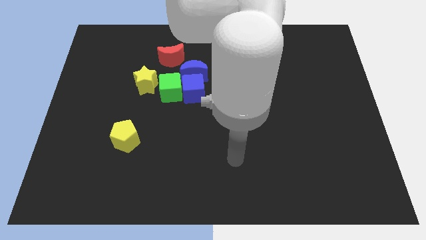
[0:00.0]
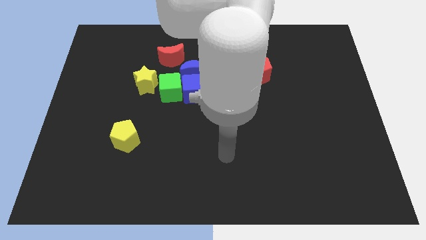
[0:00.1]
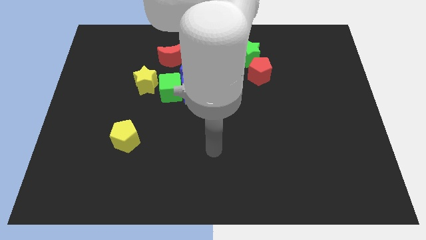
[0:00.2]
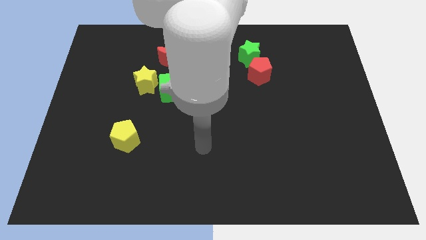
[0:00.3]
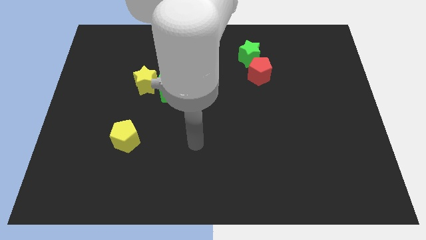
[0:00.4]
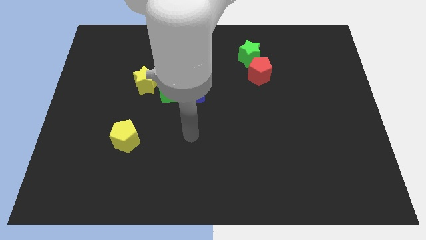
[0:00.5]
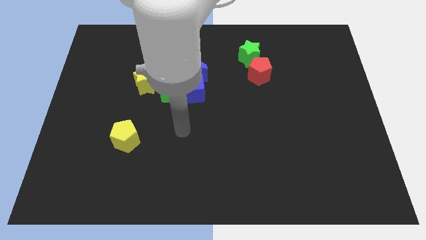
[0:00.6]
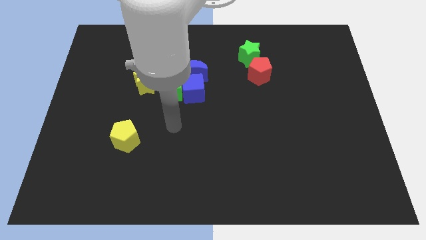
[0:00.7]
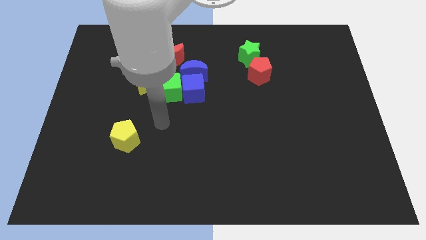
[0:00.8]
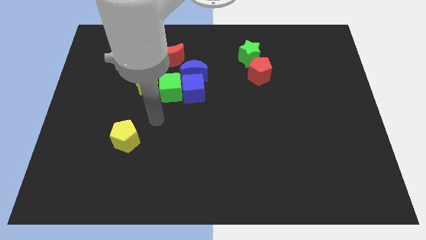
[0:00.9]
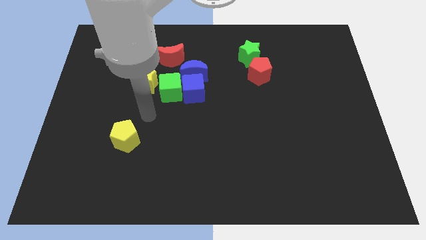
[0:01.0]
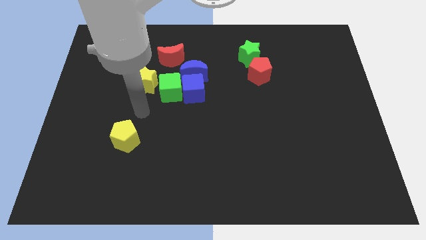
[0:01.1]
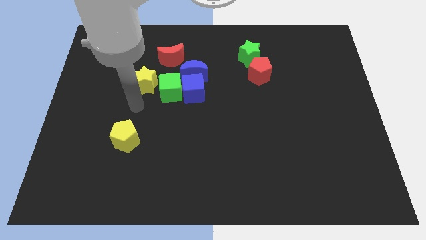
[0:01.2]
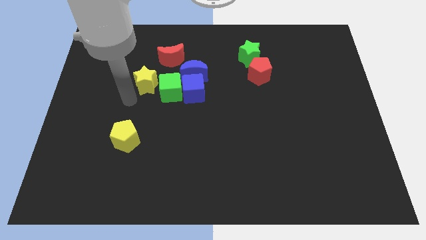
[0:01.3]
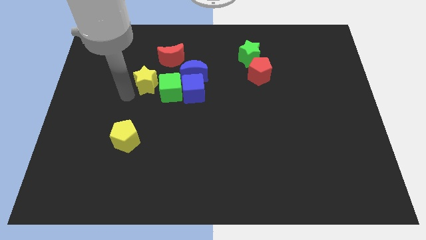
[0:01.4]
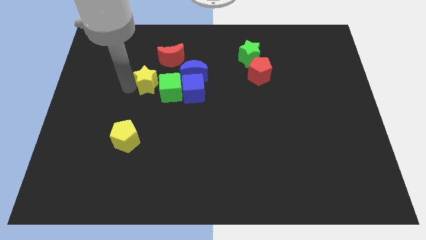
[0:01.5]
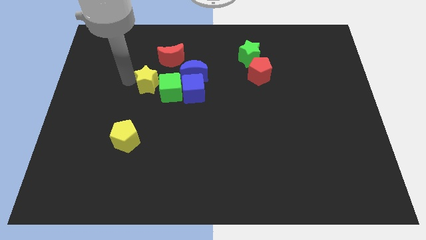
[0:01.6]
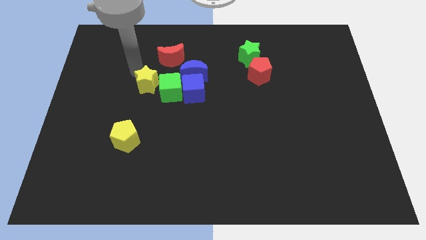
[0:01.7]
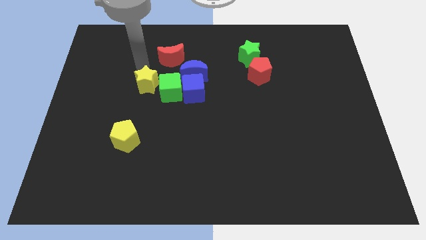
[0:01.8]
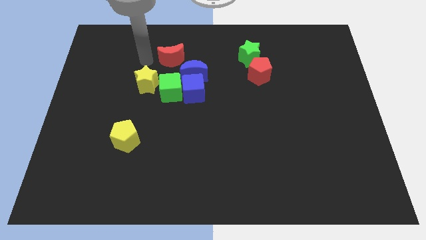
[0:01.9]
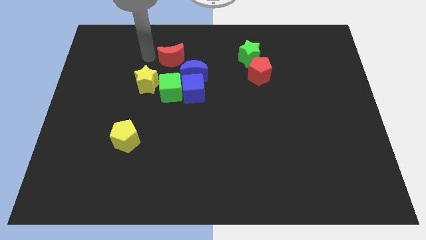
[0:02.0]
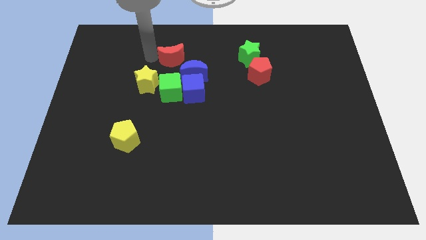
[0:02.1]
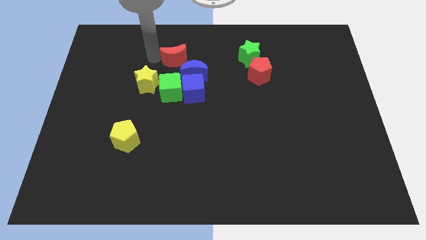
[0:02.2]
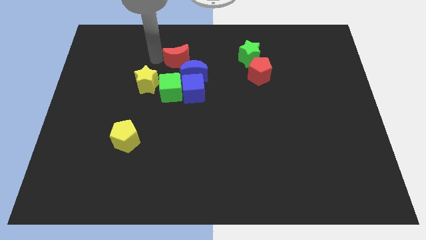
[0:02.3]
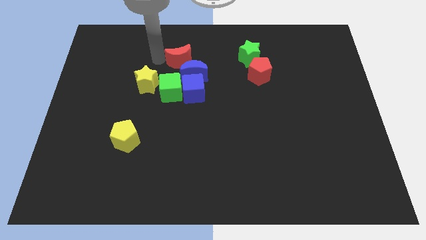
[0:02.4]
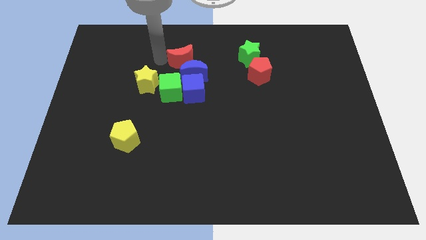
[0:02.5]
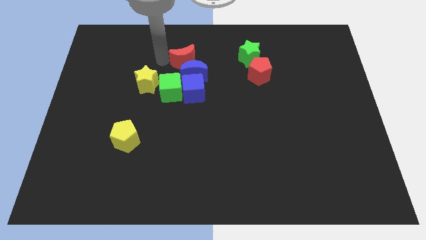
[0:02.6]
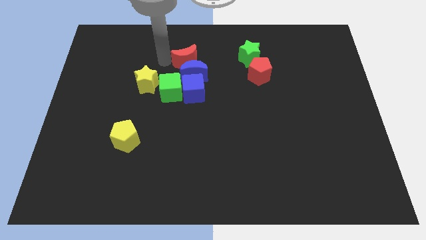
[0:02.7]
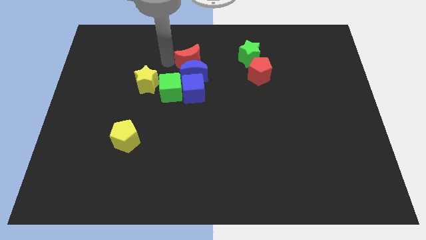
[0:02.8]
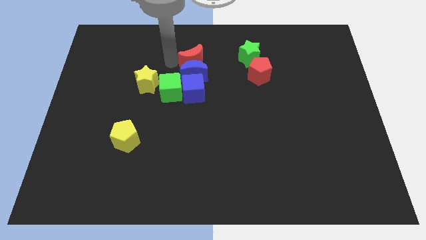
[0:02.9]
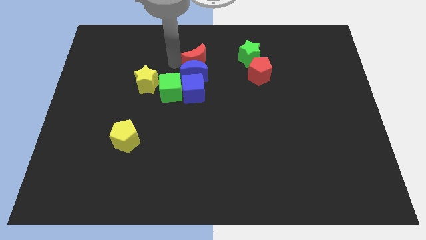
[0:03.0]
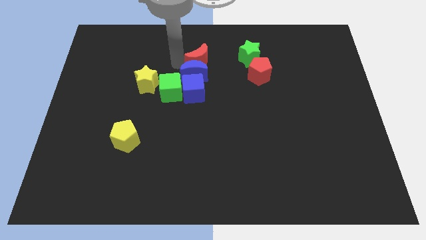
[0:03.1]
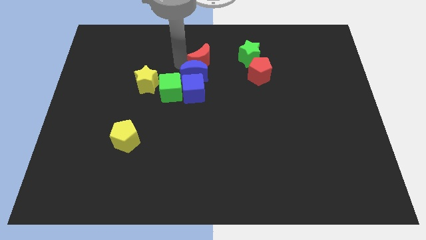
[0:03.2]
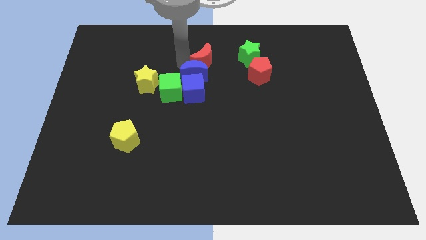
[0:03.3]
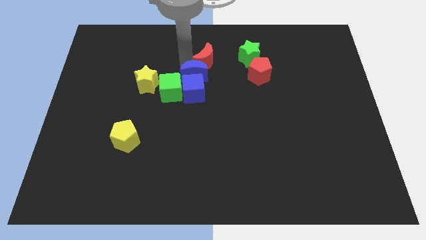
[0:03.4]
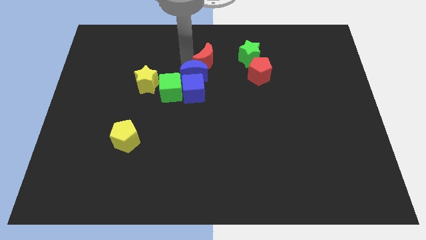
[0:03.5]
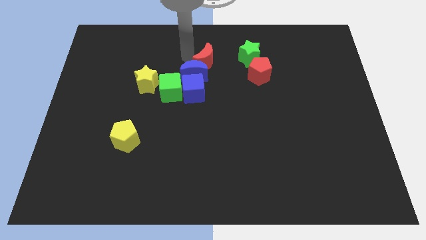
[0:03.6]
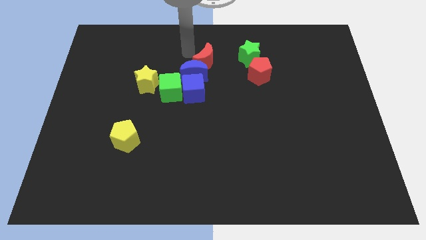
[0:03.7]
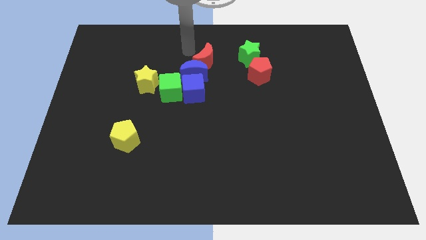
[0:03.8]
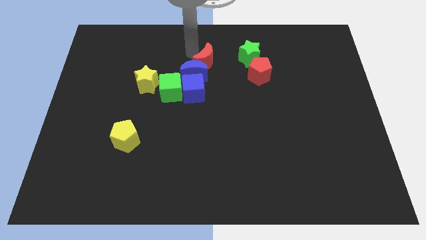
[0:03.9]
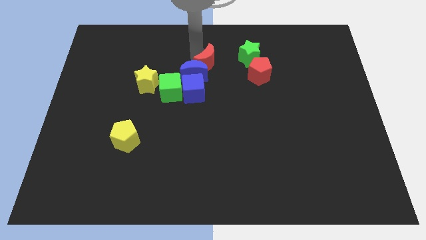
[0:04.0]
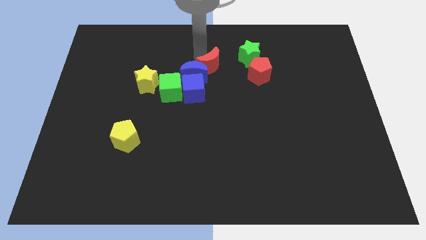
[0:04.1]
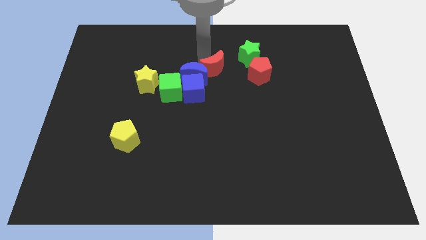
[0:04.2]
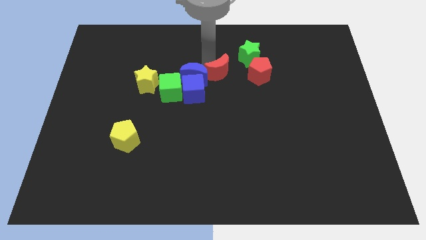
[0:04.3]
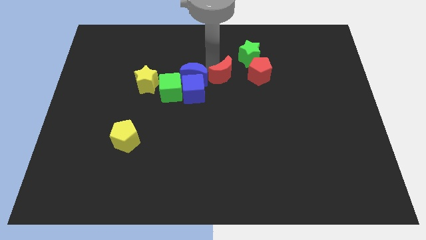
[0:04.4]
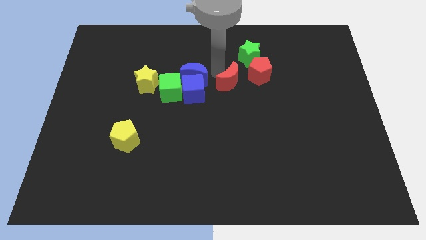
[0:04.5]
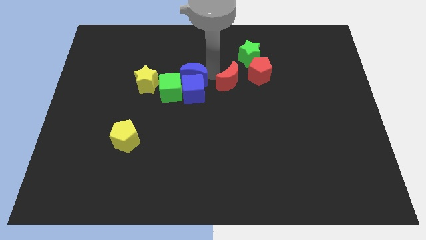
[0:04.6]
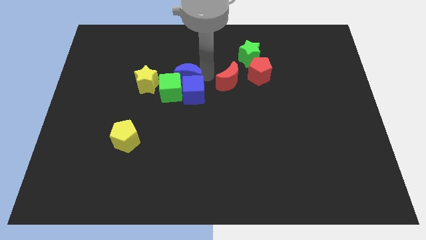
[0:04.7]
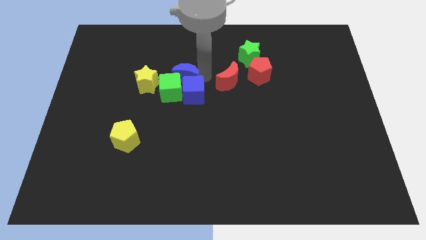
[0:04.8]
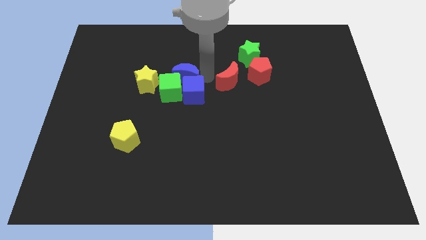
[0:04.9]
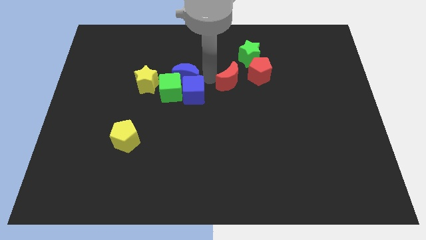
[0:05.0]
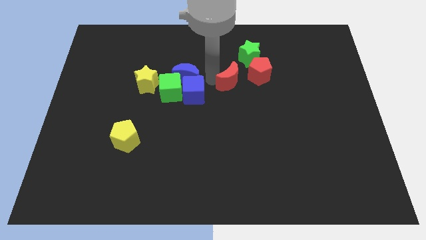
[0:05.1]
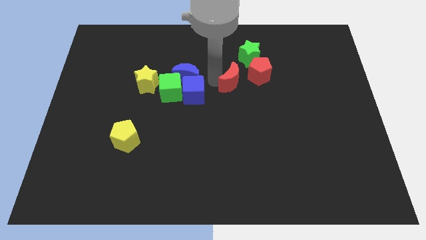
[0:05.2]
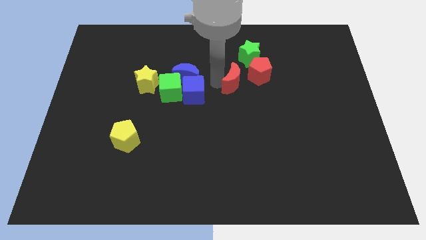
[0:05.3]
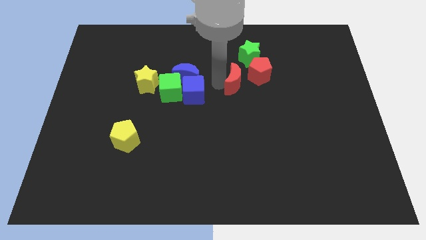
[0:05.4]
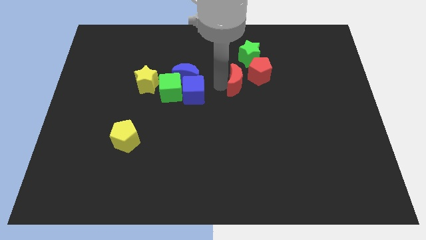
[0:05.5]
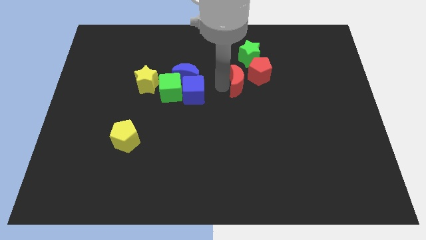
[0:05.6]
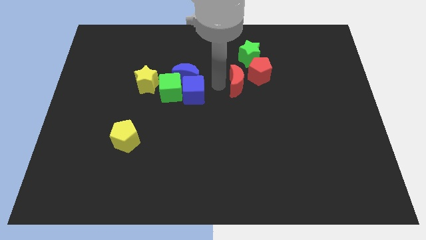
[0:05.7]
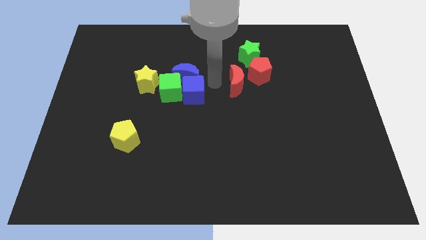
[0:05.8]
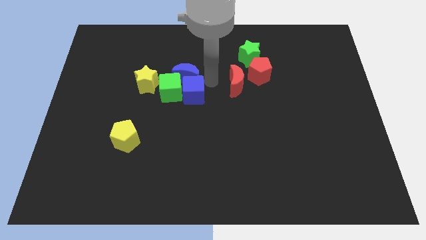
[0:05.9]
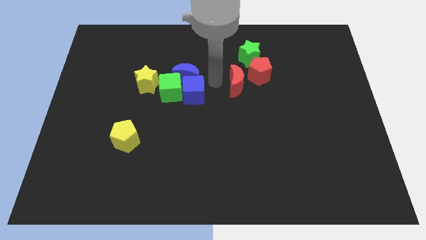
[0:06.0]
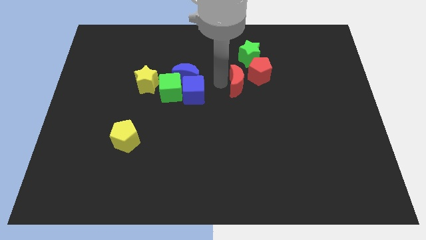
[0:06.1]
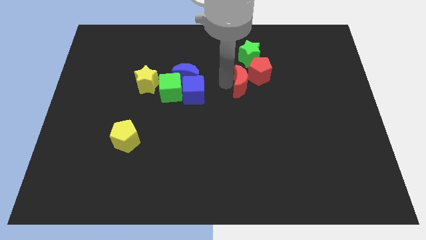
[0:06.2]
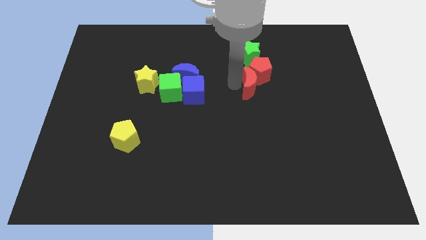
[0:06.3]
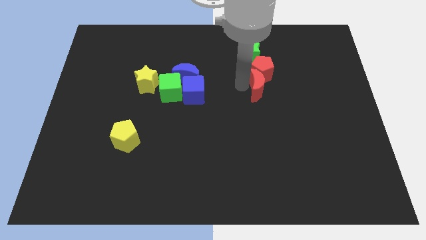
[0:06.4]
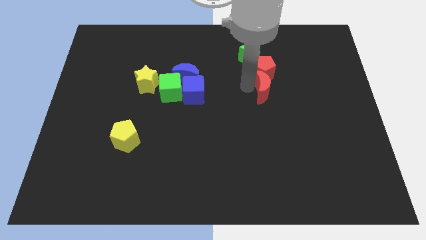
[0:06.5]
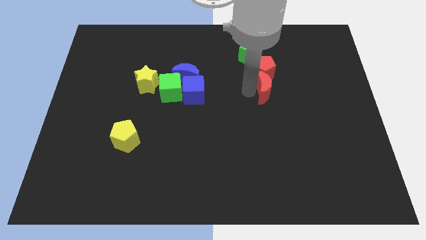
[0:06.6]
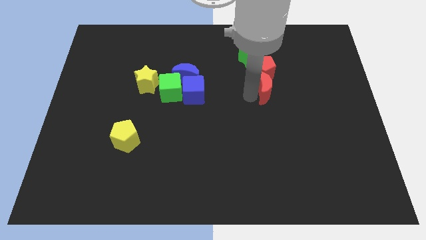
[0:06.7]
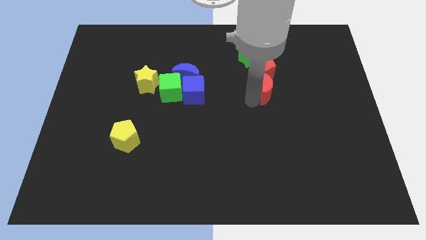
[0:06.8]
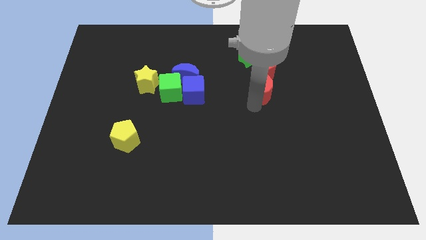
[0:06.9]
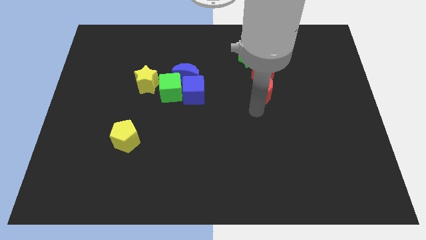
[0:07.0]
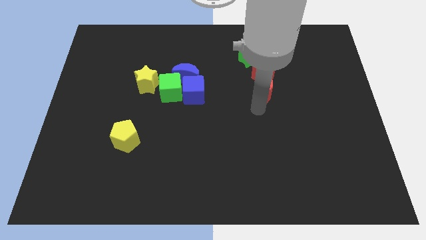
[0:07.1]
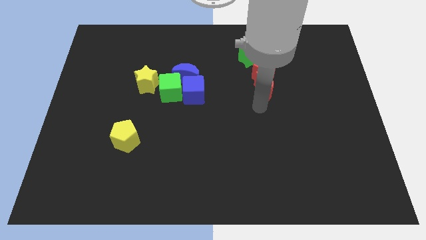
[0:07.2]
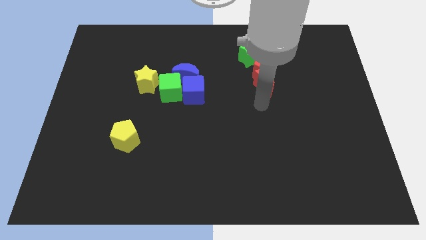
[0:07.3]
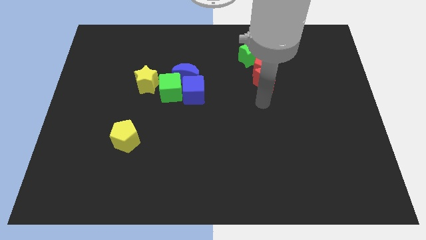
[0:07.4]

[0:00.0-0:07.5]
move the red moon to the bottom right of the green star
